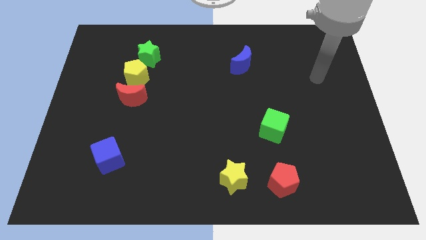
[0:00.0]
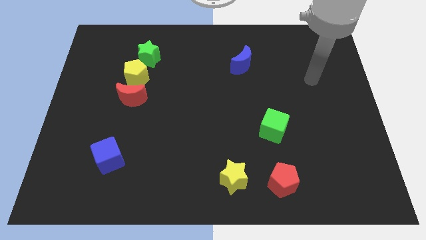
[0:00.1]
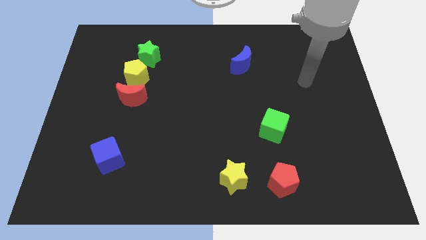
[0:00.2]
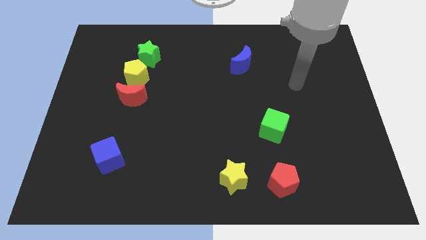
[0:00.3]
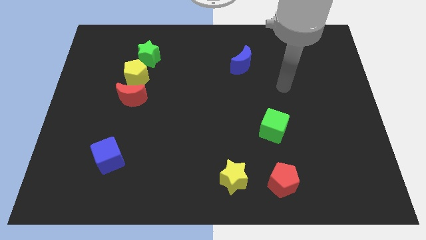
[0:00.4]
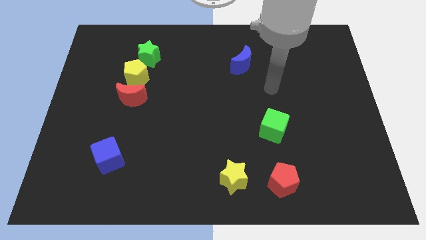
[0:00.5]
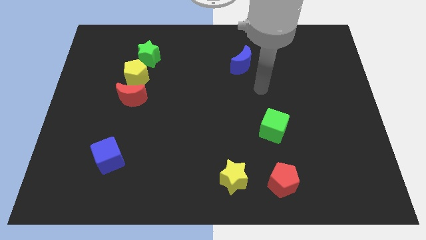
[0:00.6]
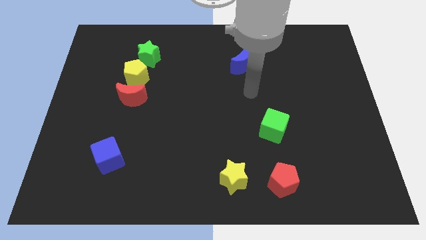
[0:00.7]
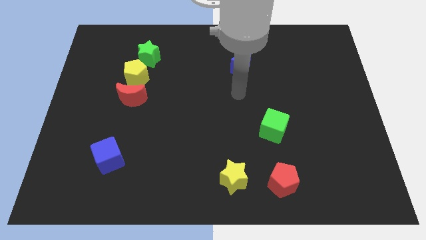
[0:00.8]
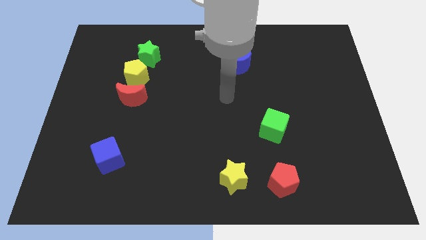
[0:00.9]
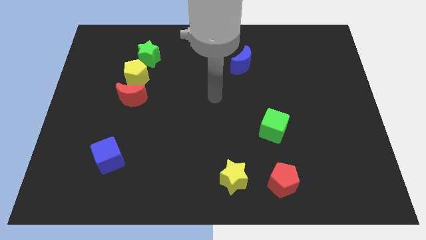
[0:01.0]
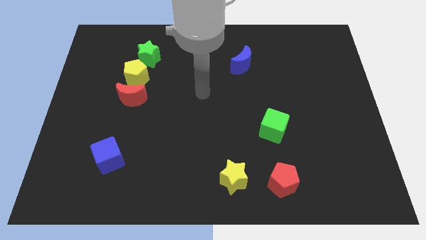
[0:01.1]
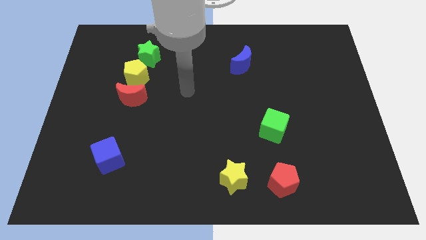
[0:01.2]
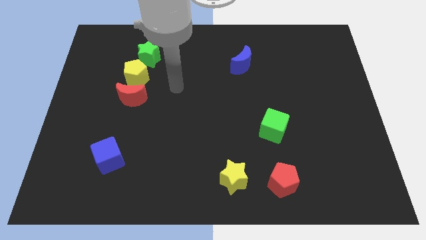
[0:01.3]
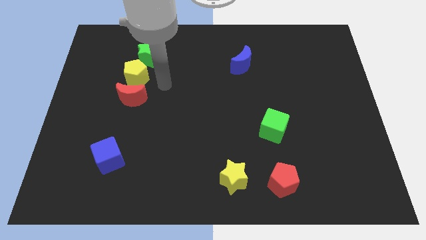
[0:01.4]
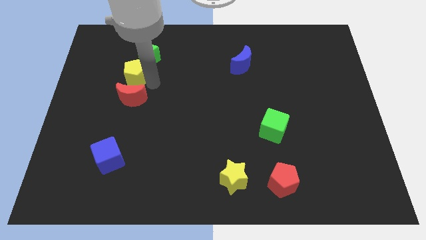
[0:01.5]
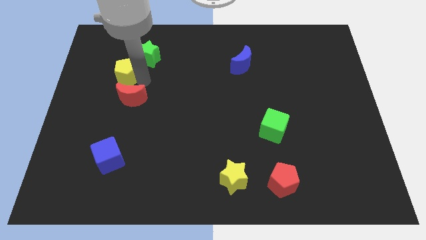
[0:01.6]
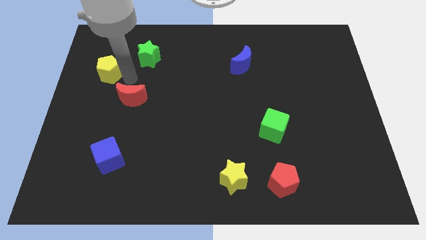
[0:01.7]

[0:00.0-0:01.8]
separate the red moon from the yellow pentagon

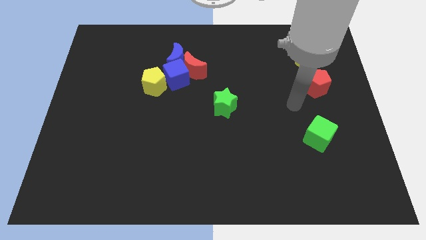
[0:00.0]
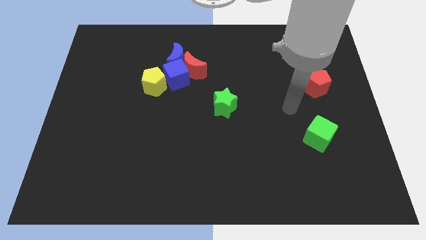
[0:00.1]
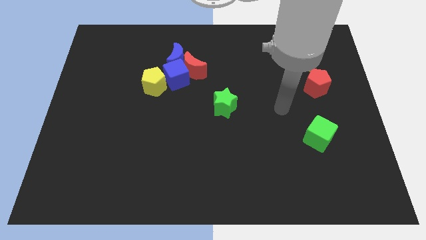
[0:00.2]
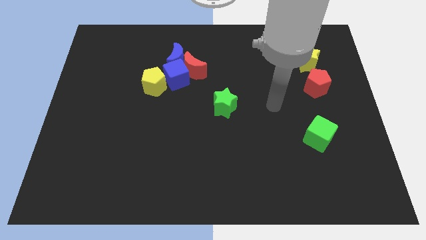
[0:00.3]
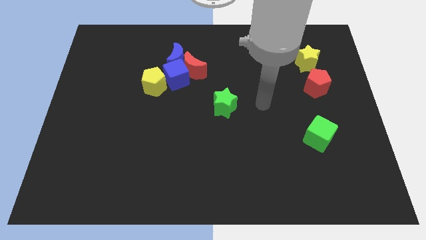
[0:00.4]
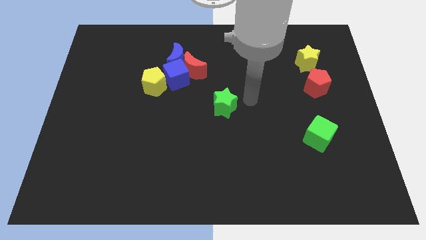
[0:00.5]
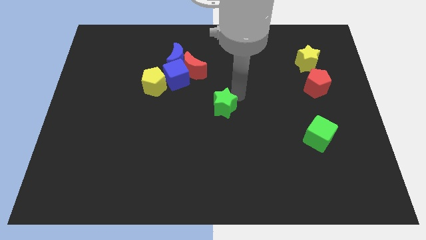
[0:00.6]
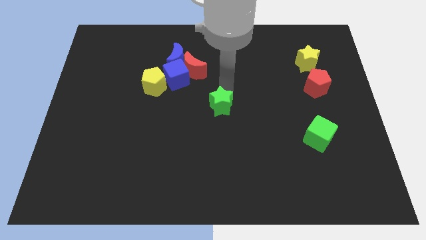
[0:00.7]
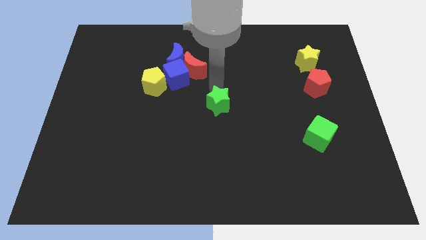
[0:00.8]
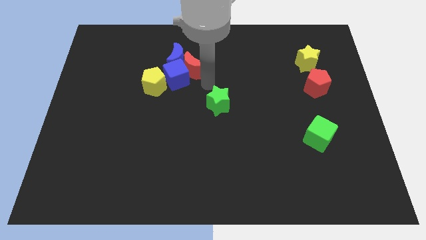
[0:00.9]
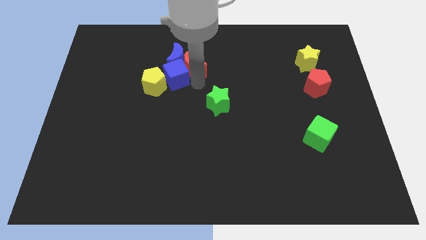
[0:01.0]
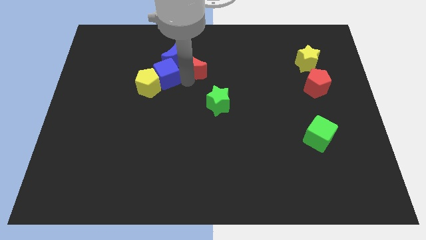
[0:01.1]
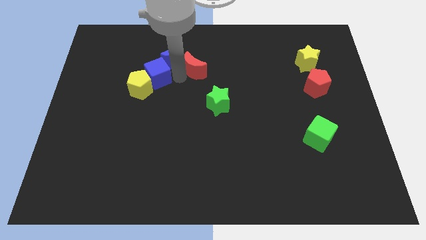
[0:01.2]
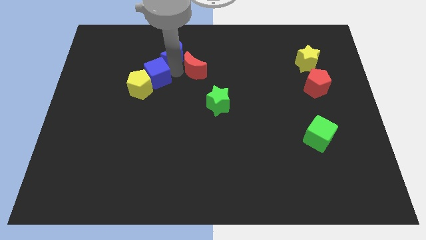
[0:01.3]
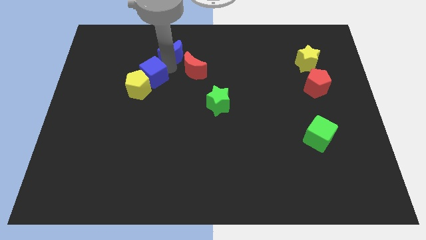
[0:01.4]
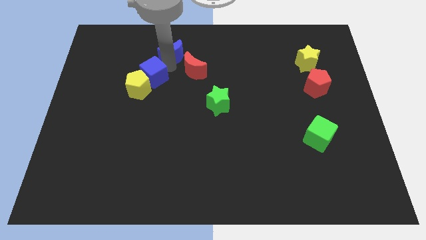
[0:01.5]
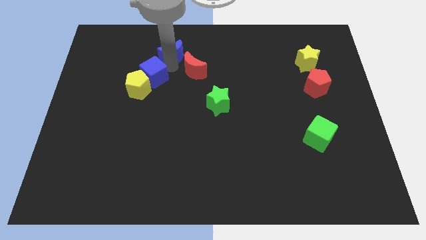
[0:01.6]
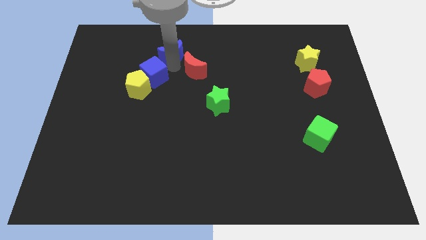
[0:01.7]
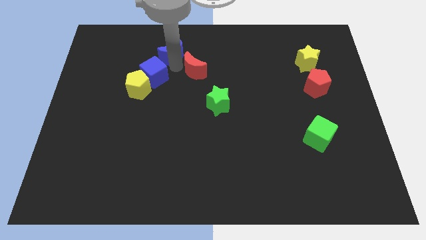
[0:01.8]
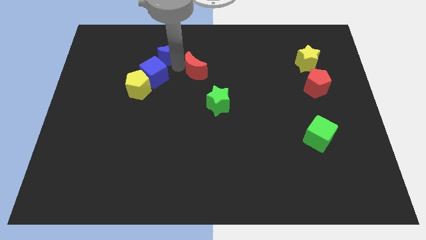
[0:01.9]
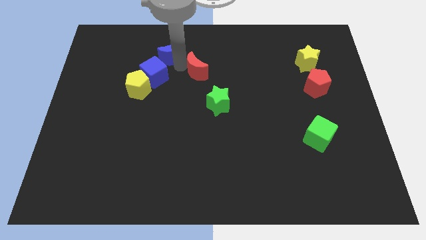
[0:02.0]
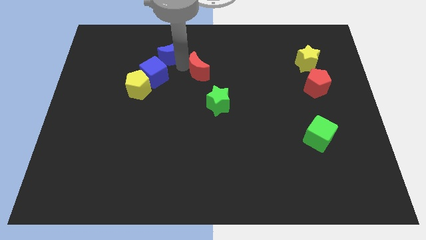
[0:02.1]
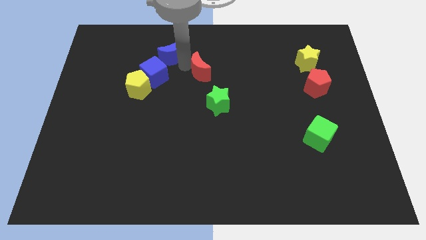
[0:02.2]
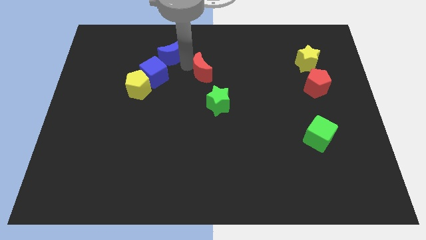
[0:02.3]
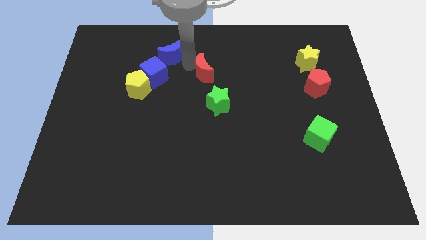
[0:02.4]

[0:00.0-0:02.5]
separate the red moon from the blue cube and blue moon

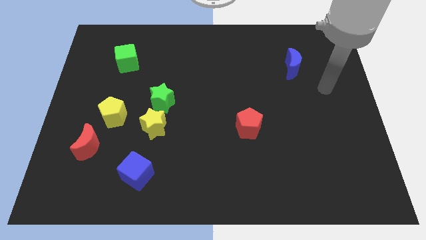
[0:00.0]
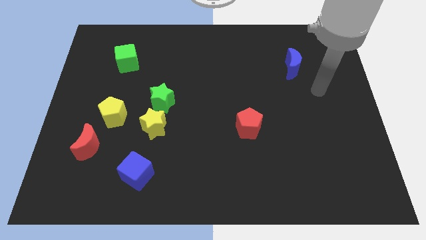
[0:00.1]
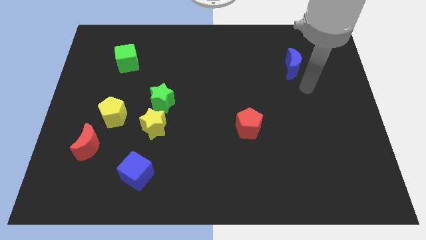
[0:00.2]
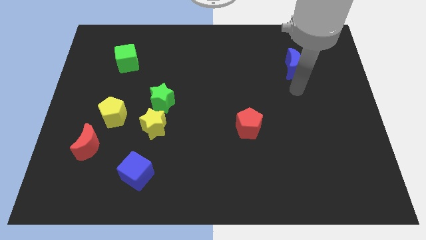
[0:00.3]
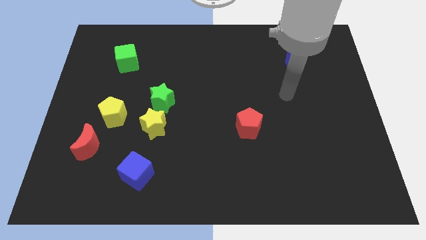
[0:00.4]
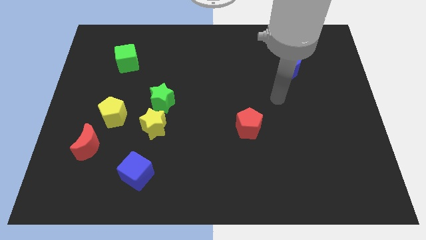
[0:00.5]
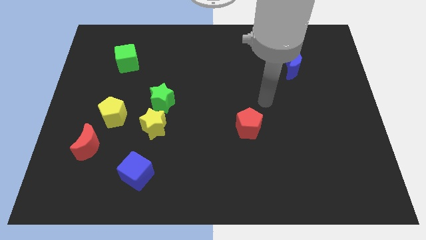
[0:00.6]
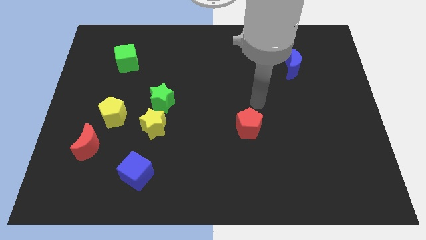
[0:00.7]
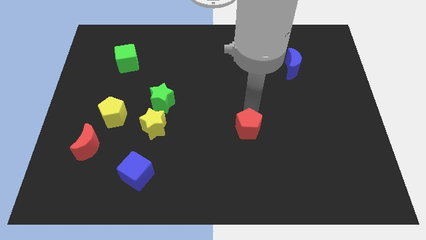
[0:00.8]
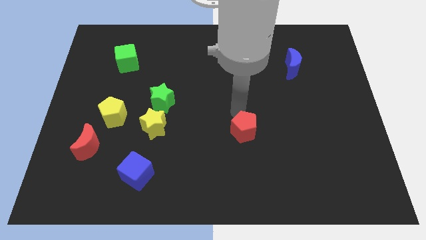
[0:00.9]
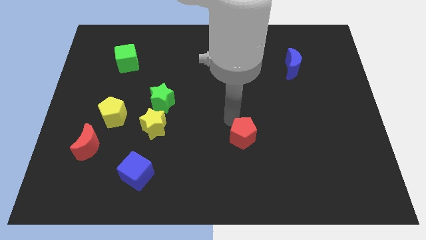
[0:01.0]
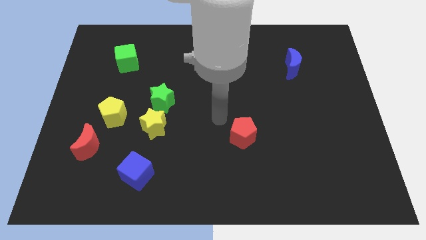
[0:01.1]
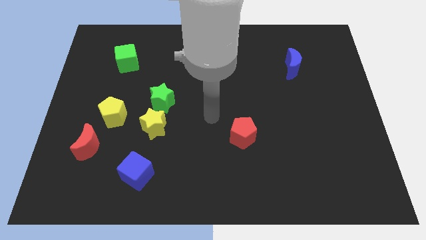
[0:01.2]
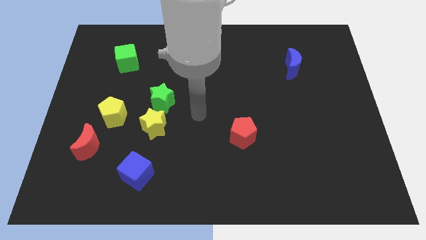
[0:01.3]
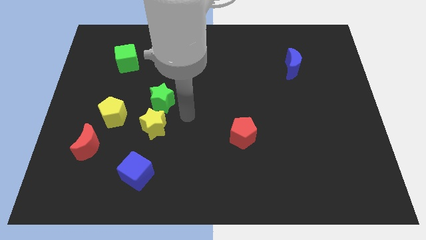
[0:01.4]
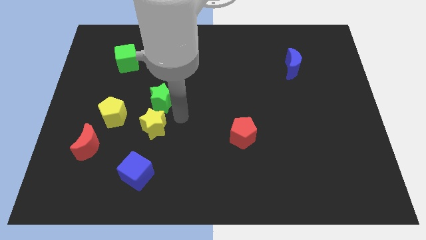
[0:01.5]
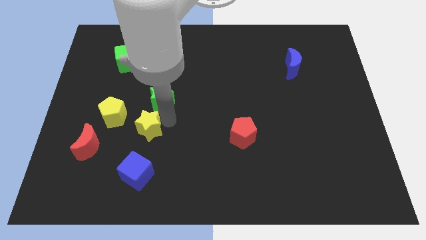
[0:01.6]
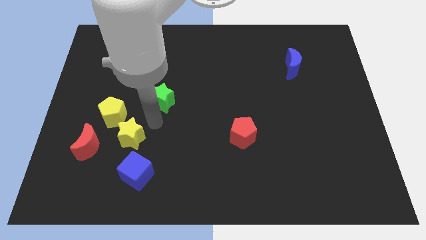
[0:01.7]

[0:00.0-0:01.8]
move the green star away from the yellow star

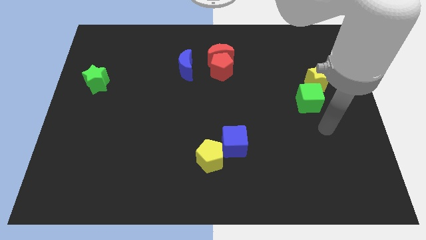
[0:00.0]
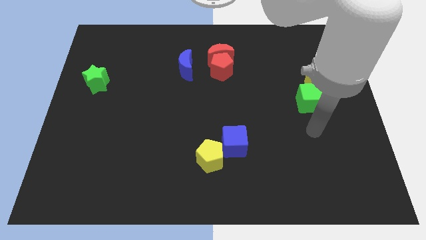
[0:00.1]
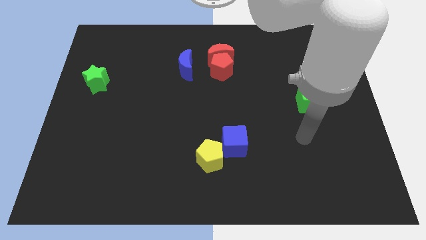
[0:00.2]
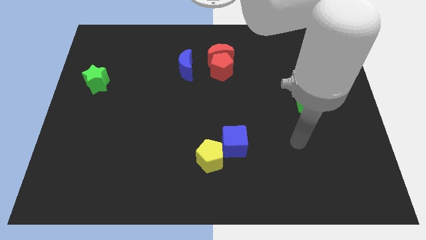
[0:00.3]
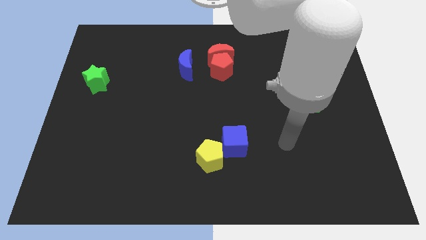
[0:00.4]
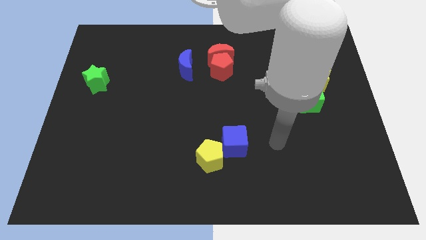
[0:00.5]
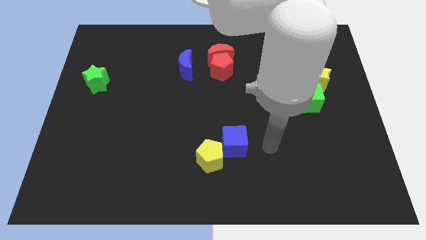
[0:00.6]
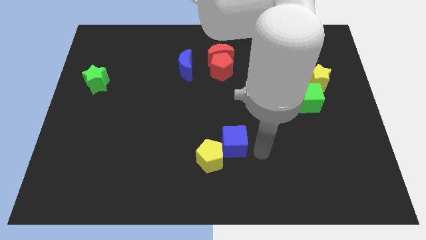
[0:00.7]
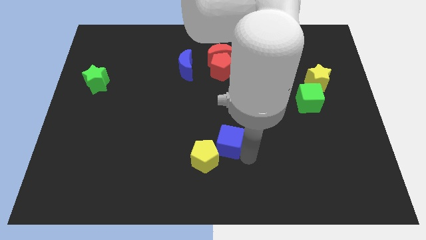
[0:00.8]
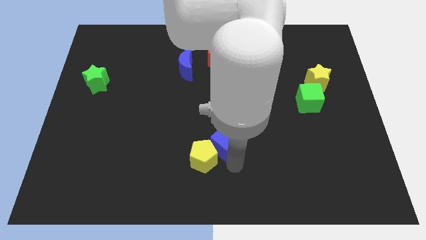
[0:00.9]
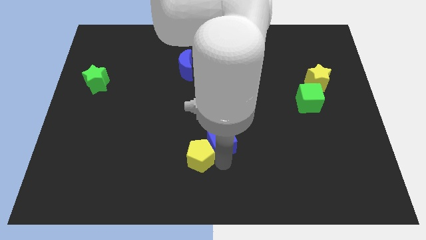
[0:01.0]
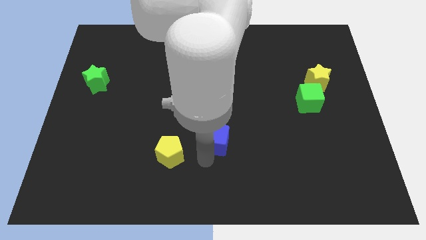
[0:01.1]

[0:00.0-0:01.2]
pull the blue cube apart from the yellow pentagon

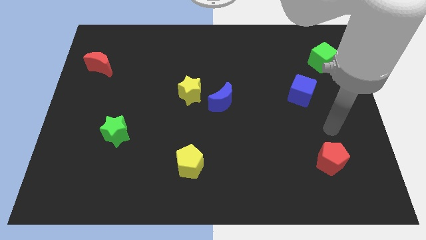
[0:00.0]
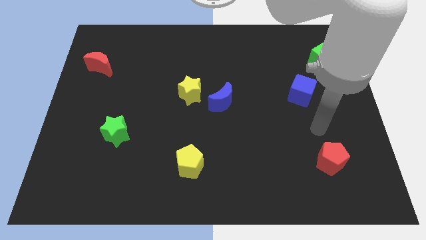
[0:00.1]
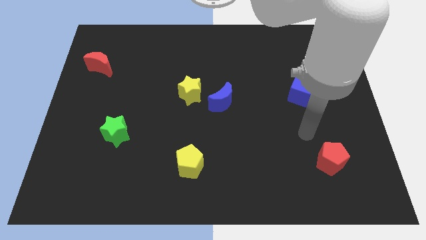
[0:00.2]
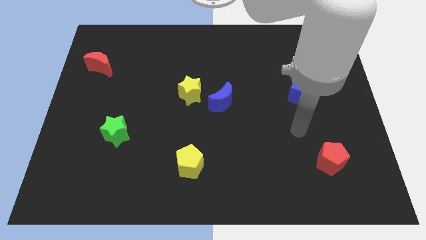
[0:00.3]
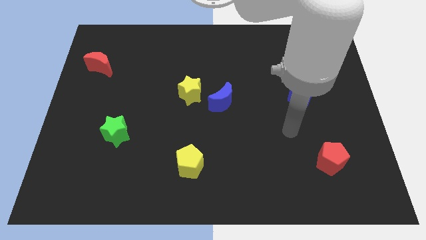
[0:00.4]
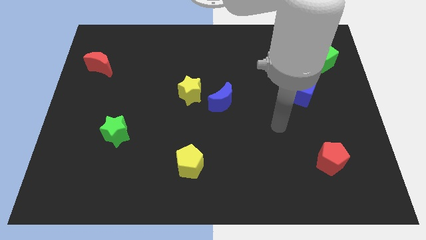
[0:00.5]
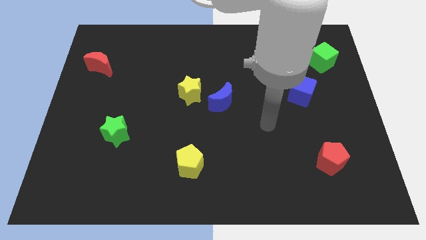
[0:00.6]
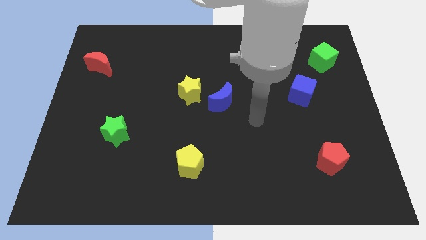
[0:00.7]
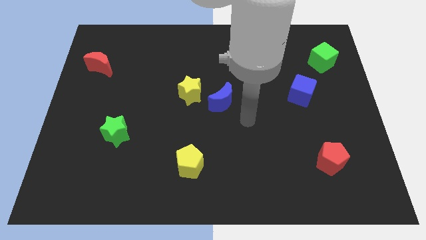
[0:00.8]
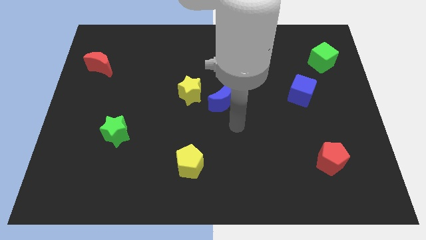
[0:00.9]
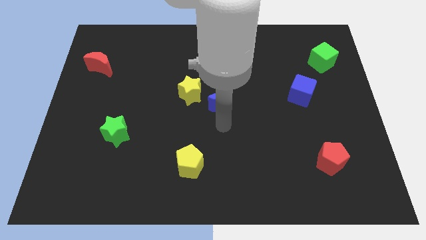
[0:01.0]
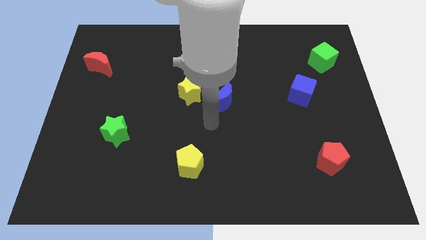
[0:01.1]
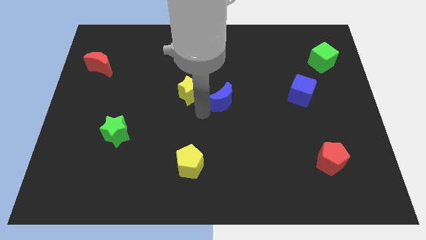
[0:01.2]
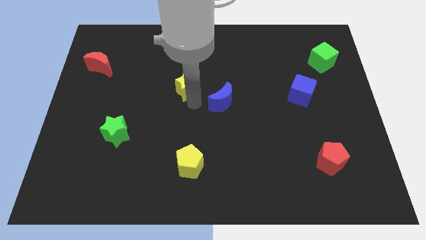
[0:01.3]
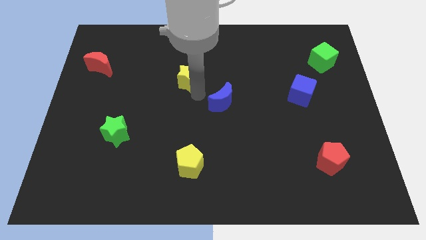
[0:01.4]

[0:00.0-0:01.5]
separate the blue moon from the yellow star

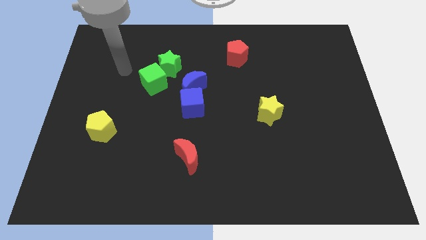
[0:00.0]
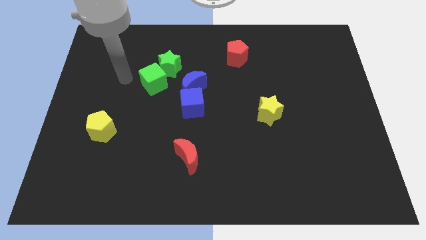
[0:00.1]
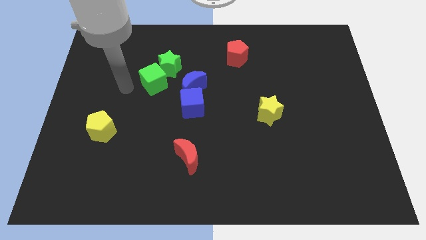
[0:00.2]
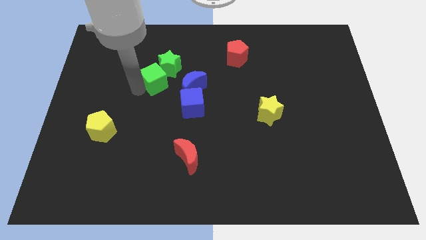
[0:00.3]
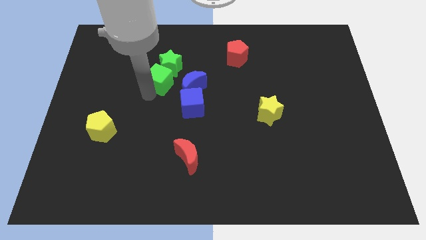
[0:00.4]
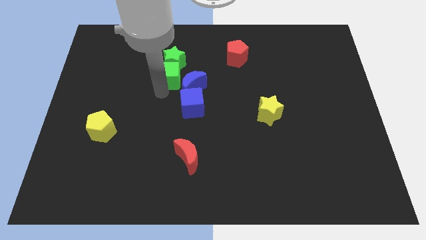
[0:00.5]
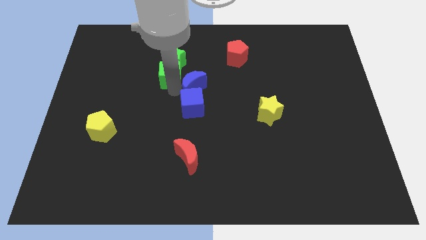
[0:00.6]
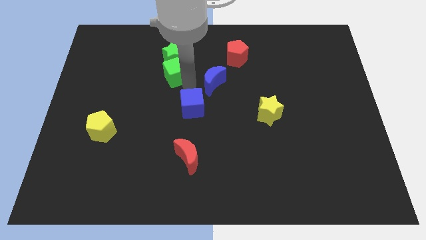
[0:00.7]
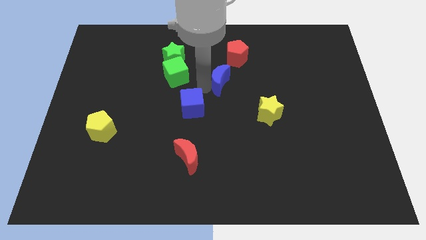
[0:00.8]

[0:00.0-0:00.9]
separate the blue cube from the blue moon
